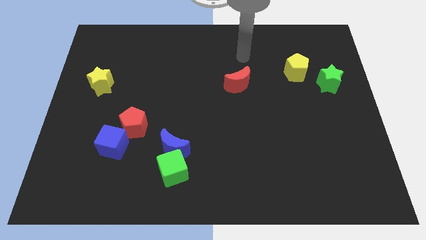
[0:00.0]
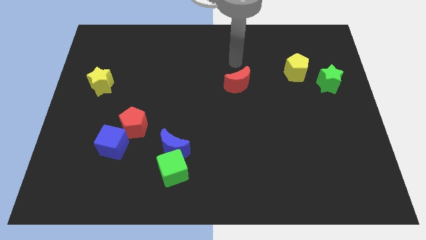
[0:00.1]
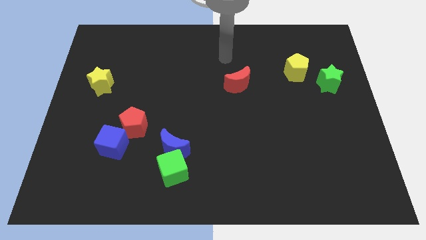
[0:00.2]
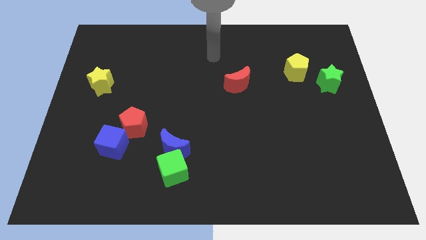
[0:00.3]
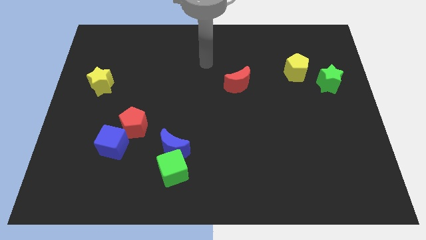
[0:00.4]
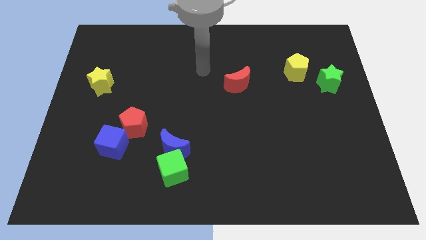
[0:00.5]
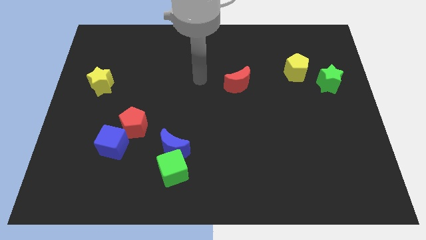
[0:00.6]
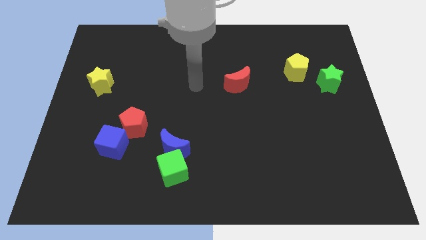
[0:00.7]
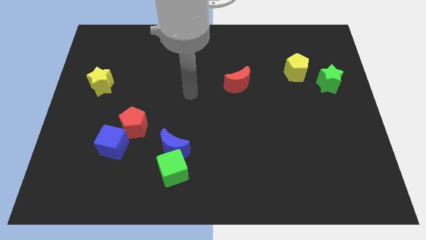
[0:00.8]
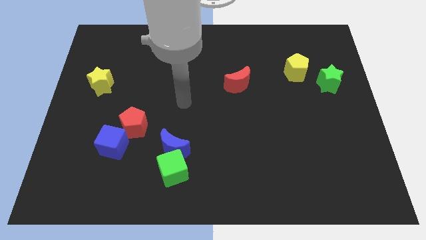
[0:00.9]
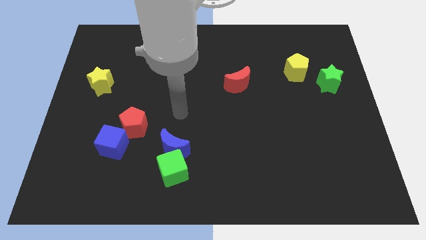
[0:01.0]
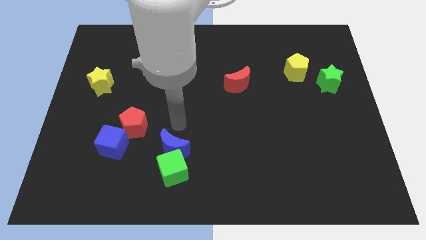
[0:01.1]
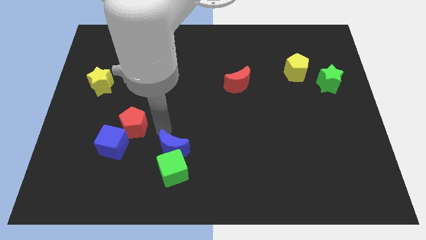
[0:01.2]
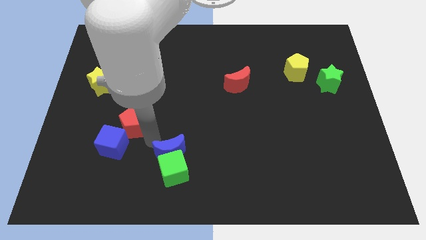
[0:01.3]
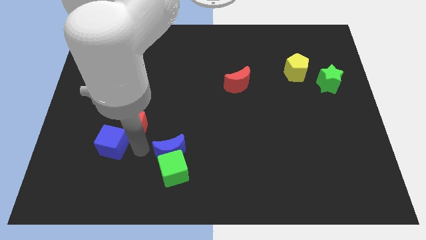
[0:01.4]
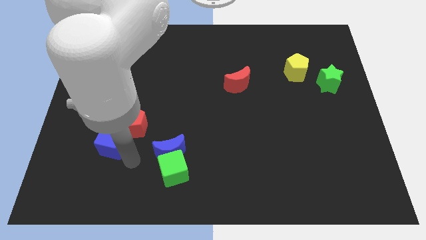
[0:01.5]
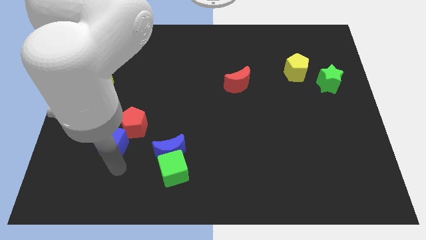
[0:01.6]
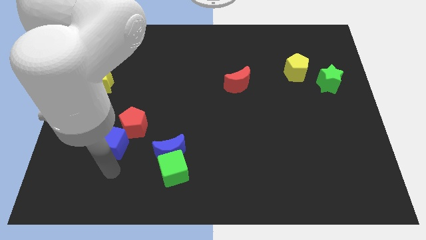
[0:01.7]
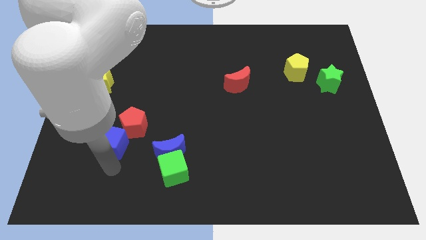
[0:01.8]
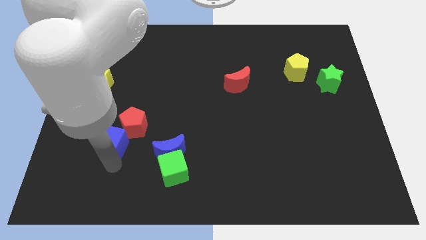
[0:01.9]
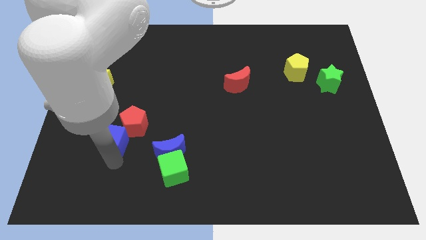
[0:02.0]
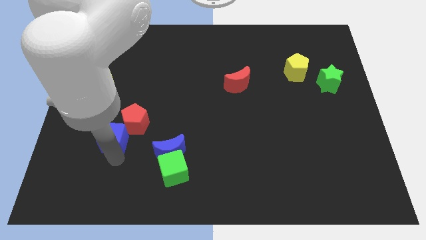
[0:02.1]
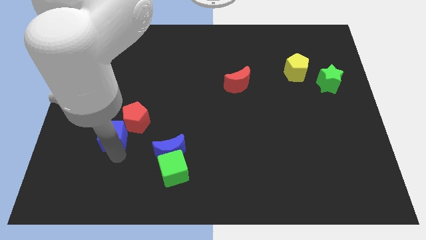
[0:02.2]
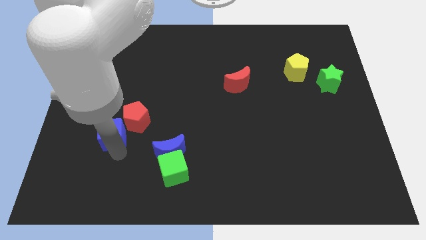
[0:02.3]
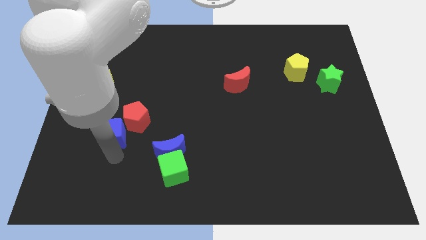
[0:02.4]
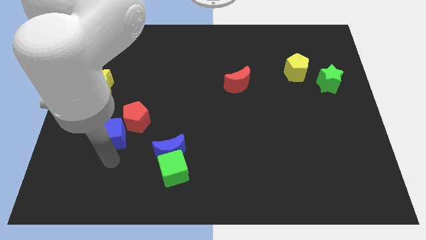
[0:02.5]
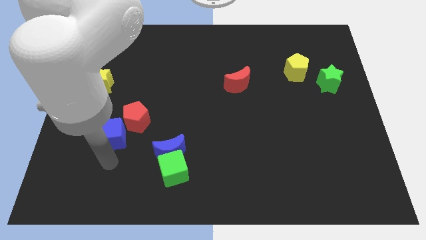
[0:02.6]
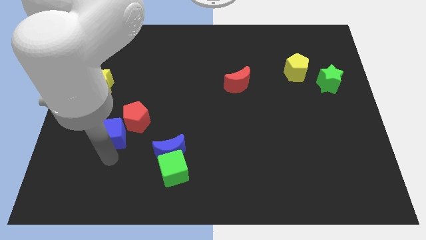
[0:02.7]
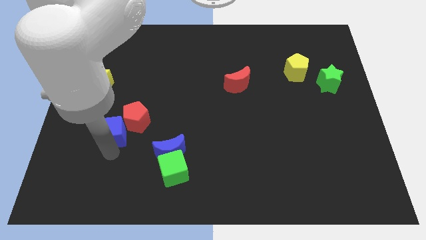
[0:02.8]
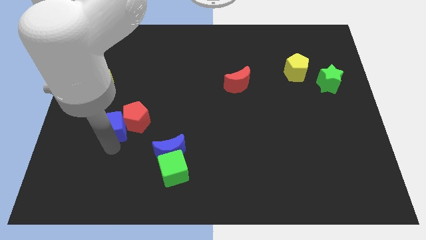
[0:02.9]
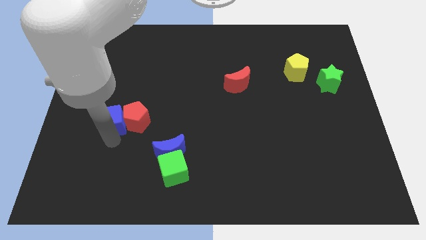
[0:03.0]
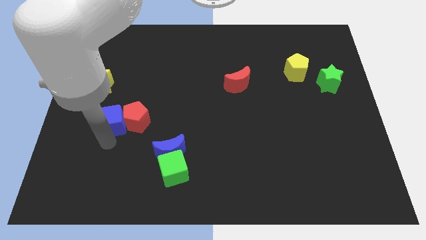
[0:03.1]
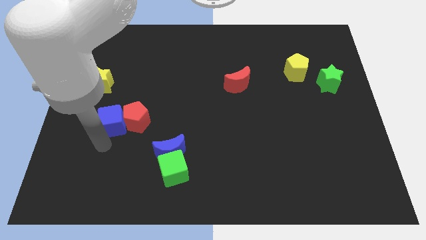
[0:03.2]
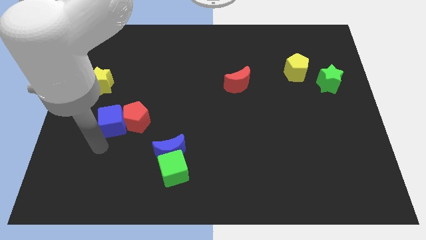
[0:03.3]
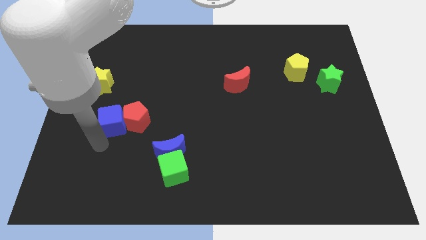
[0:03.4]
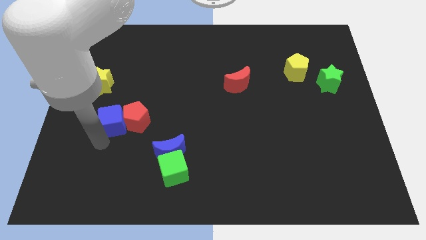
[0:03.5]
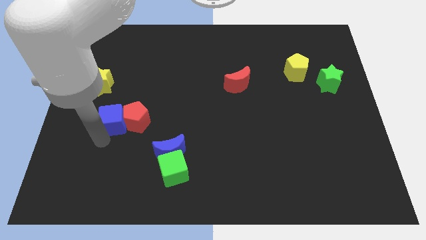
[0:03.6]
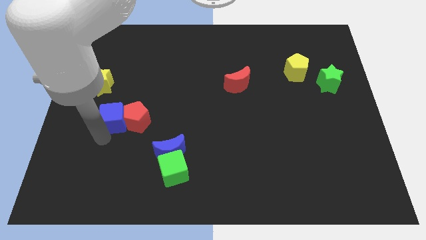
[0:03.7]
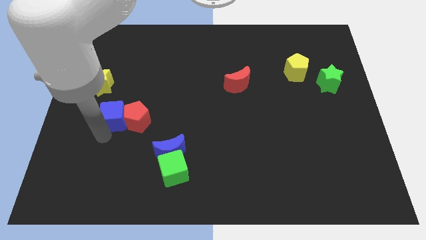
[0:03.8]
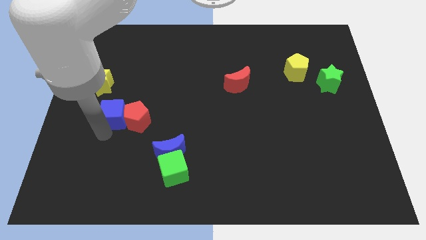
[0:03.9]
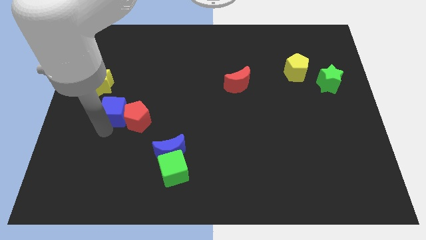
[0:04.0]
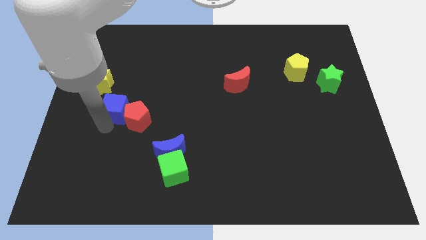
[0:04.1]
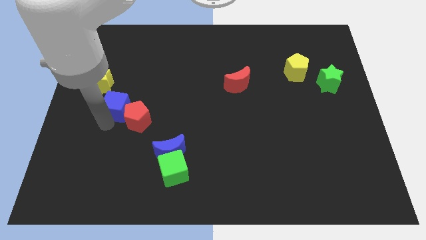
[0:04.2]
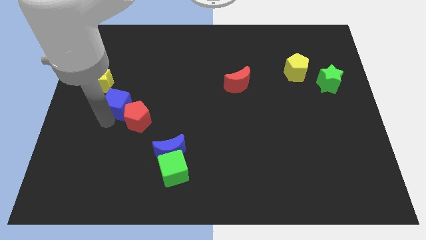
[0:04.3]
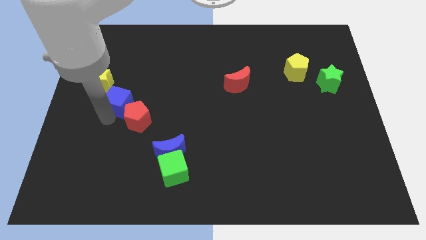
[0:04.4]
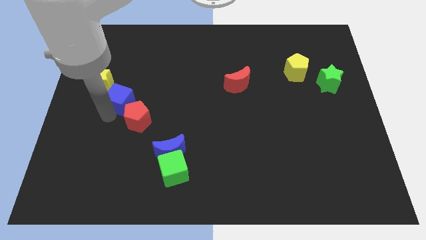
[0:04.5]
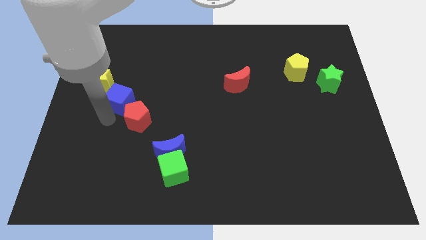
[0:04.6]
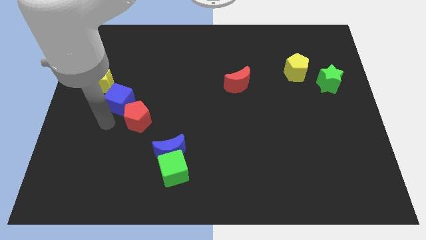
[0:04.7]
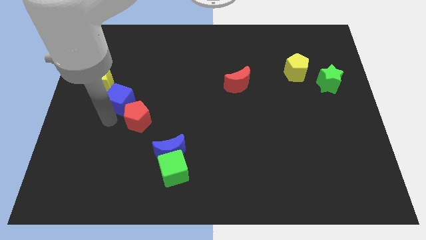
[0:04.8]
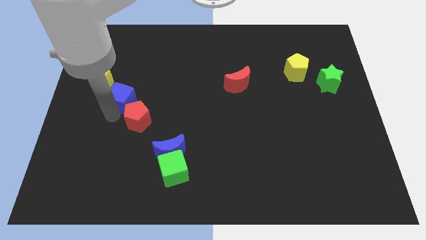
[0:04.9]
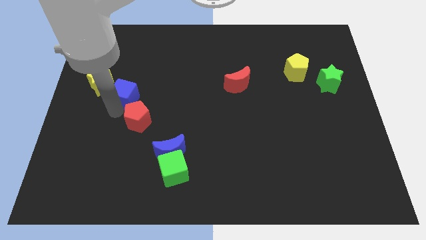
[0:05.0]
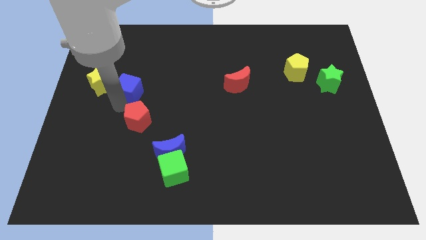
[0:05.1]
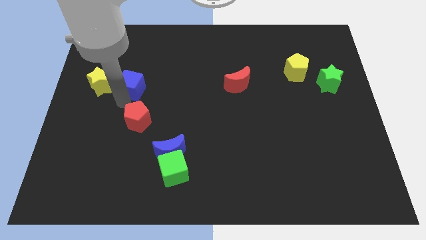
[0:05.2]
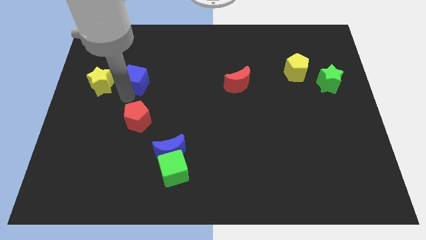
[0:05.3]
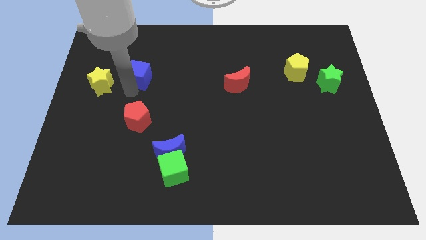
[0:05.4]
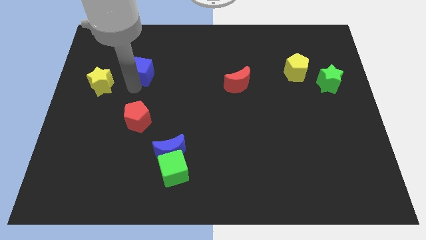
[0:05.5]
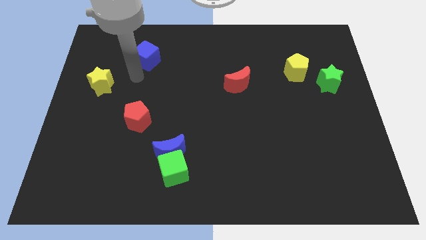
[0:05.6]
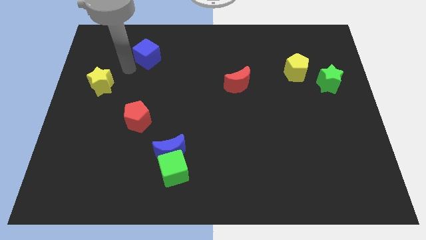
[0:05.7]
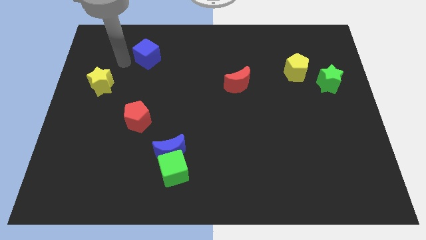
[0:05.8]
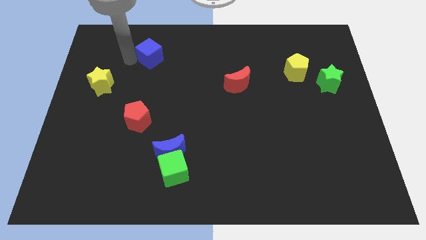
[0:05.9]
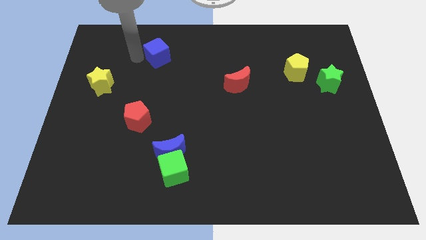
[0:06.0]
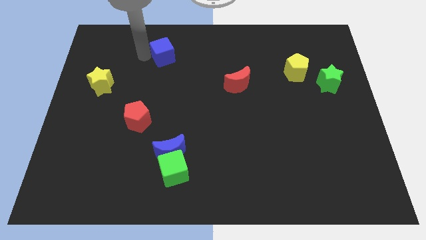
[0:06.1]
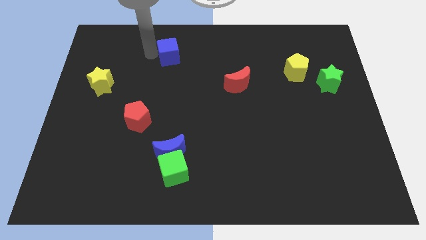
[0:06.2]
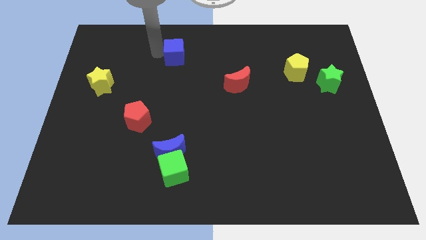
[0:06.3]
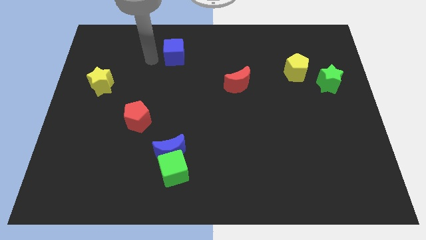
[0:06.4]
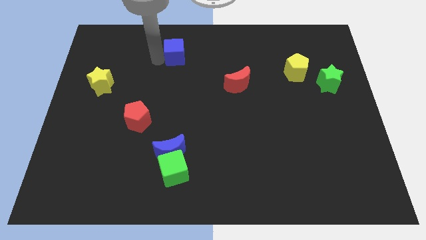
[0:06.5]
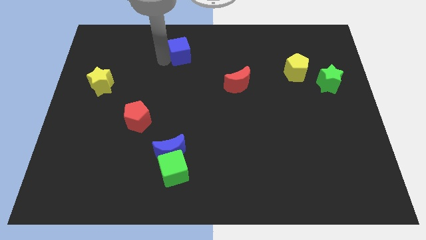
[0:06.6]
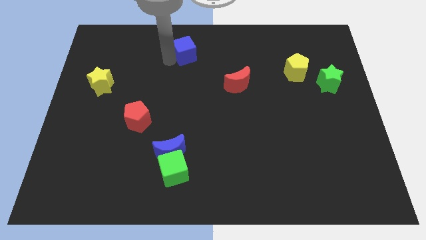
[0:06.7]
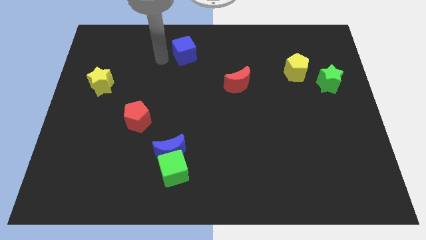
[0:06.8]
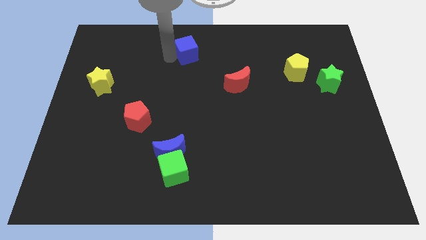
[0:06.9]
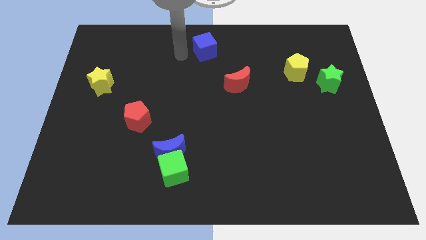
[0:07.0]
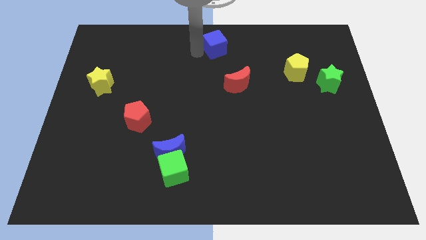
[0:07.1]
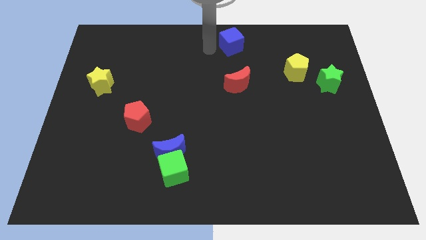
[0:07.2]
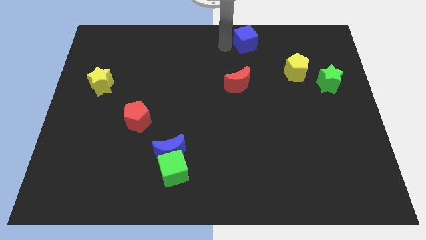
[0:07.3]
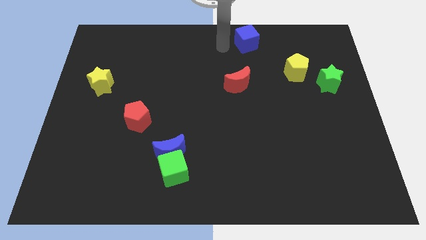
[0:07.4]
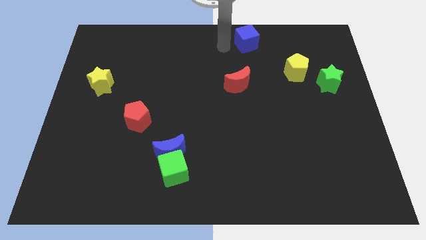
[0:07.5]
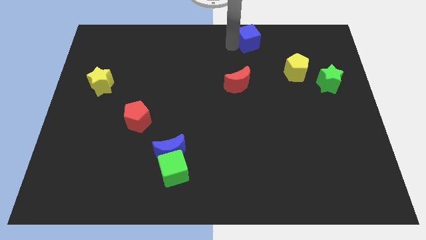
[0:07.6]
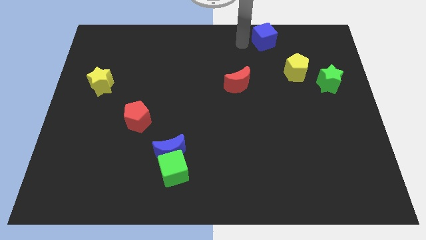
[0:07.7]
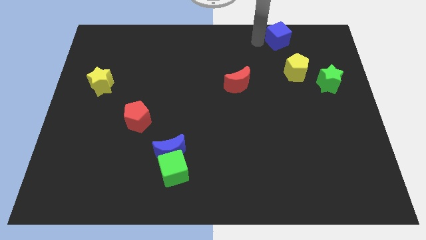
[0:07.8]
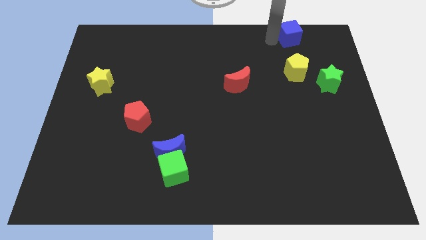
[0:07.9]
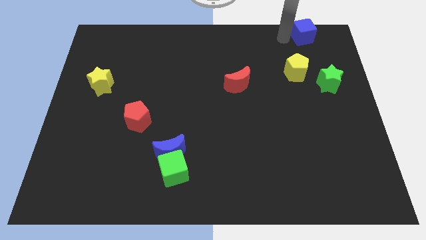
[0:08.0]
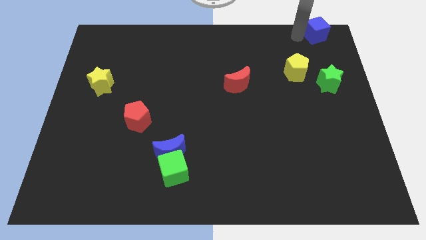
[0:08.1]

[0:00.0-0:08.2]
move the blue cube to the top right corner
